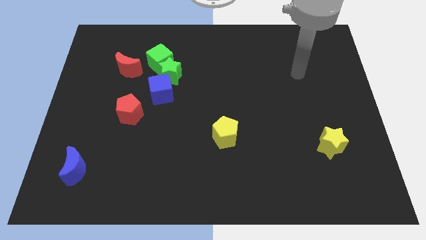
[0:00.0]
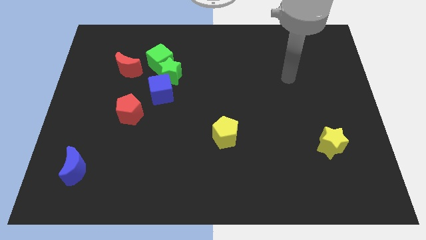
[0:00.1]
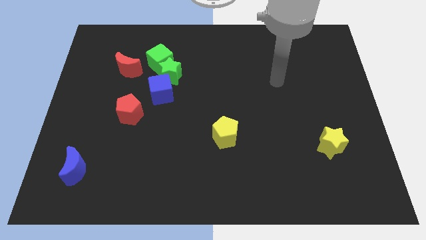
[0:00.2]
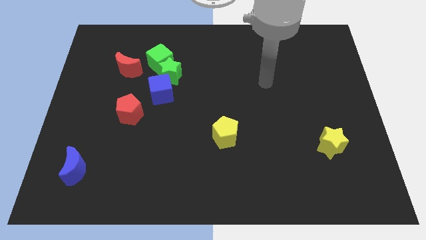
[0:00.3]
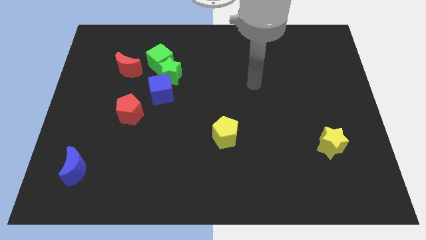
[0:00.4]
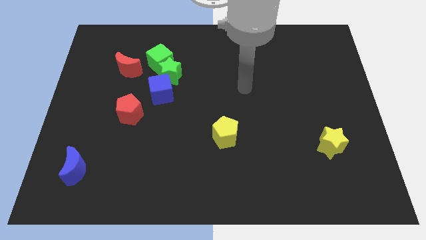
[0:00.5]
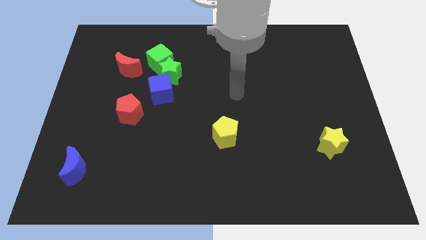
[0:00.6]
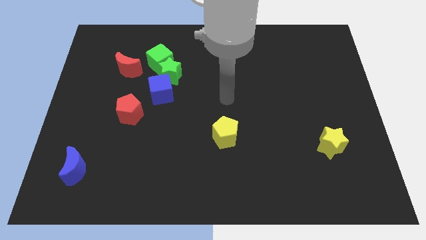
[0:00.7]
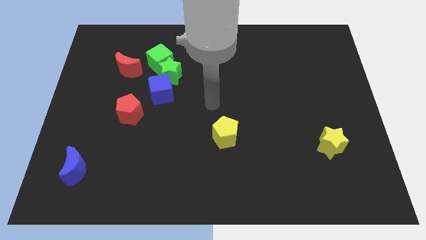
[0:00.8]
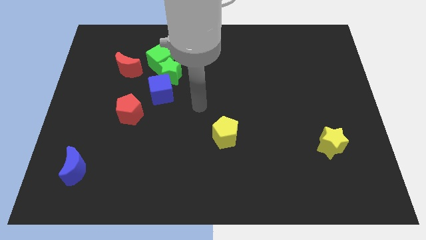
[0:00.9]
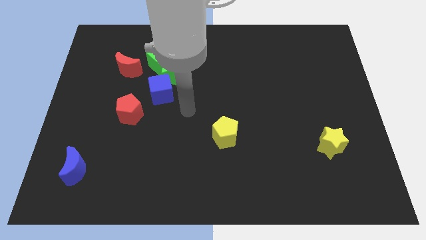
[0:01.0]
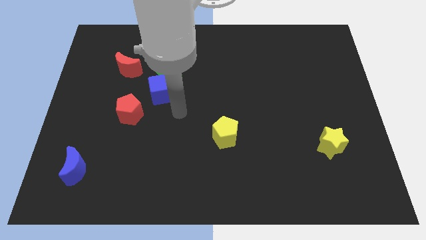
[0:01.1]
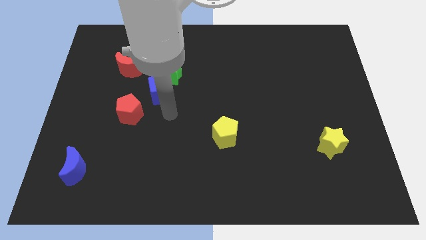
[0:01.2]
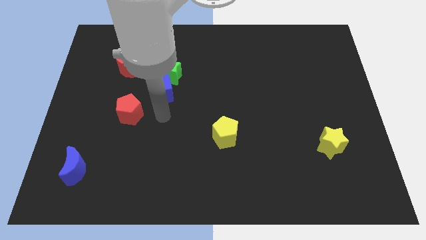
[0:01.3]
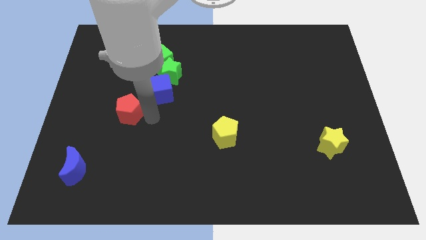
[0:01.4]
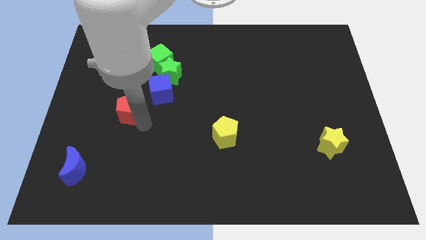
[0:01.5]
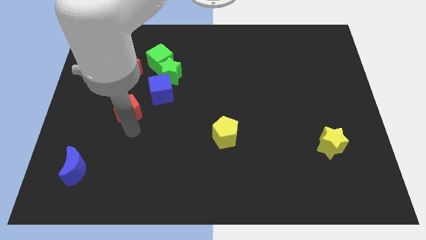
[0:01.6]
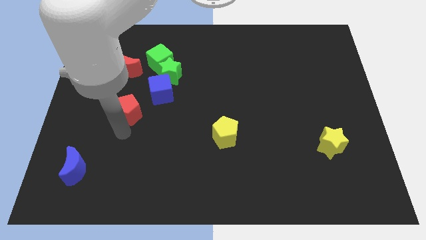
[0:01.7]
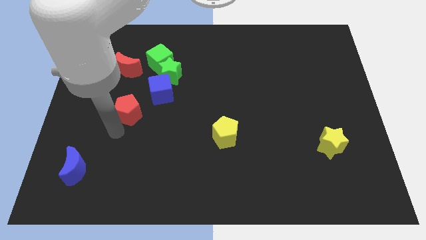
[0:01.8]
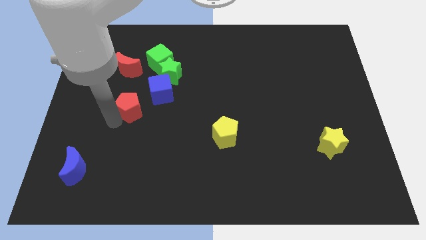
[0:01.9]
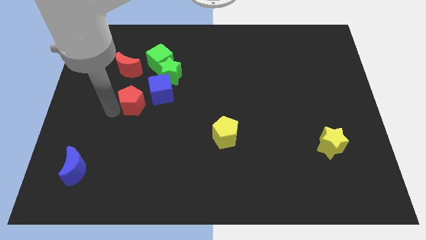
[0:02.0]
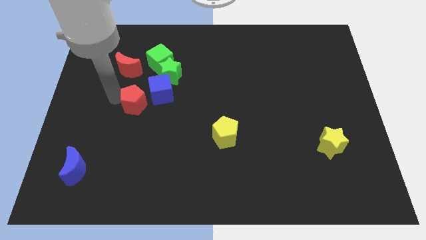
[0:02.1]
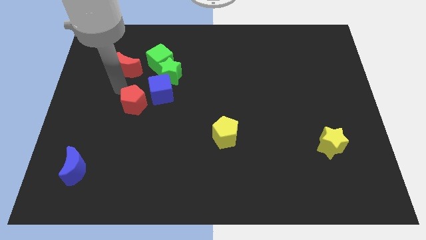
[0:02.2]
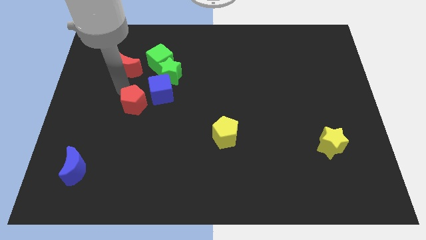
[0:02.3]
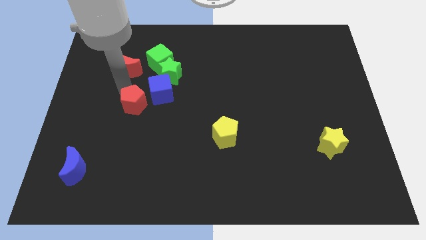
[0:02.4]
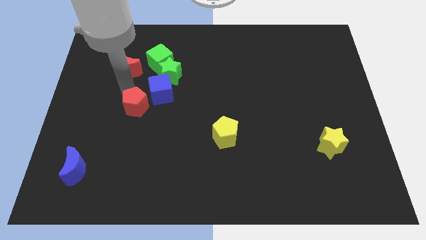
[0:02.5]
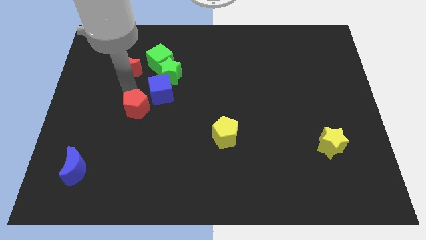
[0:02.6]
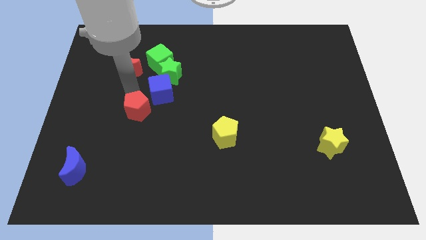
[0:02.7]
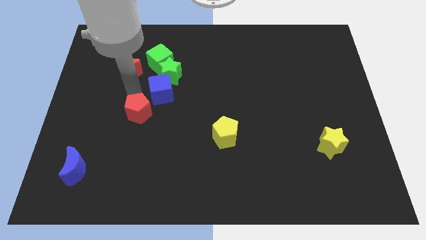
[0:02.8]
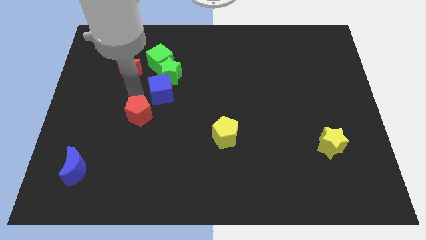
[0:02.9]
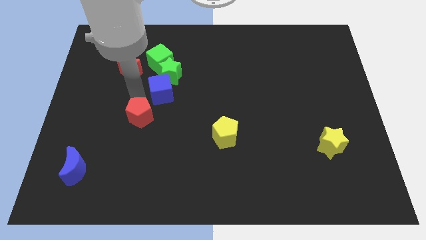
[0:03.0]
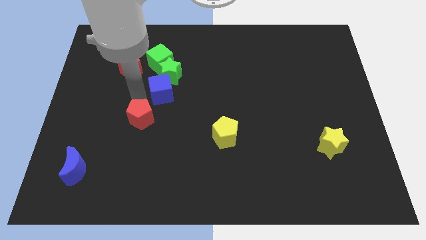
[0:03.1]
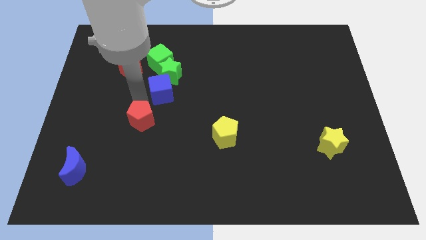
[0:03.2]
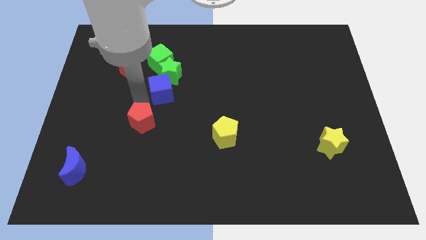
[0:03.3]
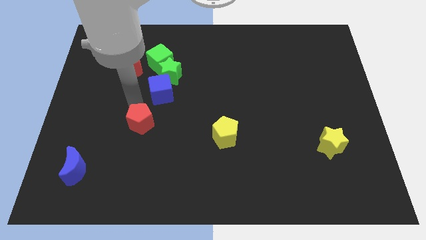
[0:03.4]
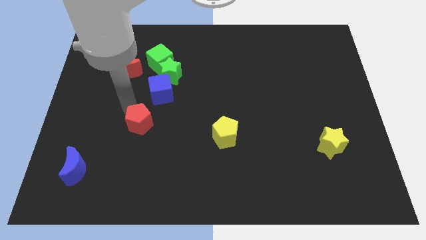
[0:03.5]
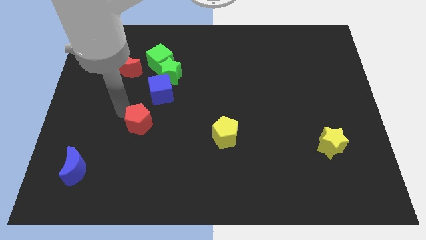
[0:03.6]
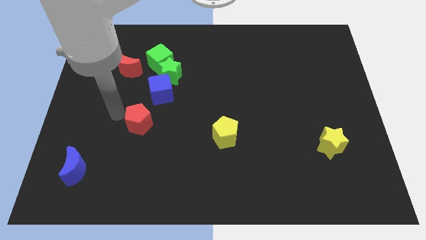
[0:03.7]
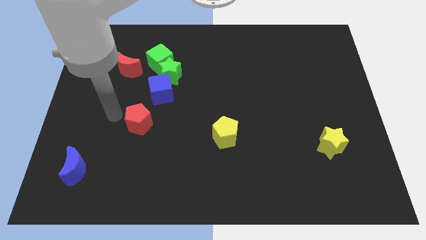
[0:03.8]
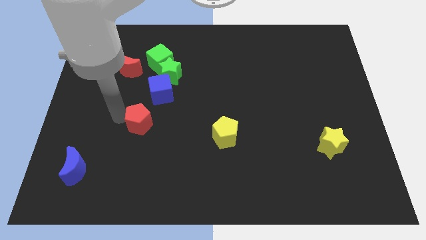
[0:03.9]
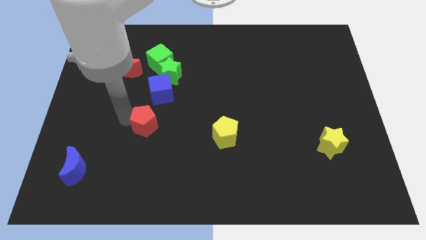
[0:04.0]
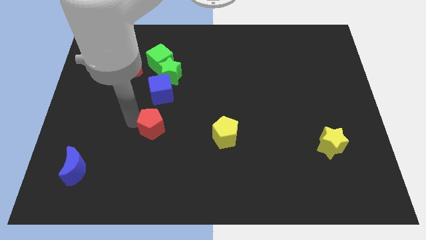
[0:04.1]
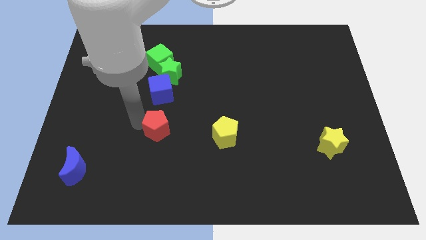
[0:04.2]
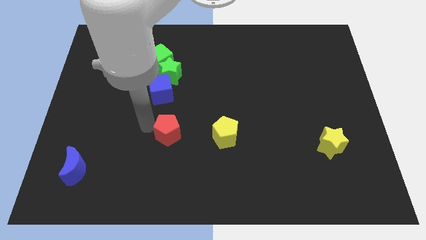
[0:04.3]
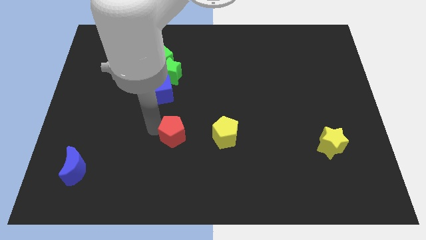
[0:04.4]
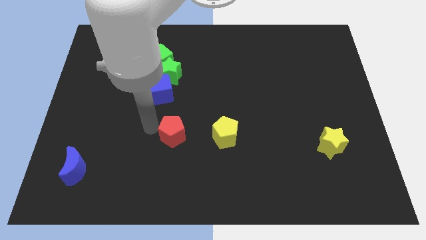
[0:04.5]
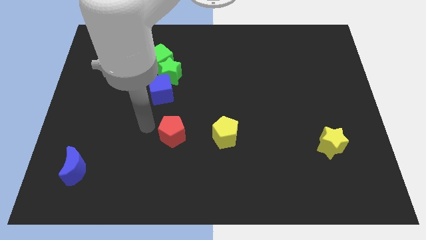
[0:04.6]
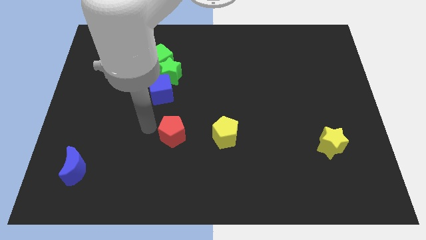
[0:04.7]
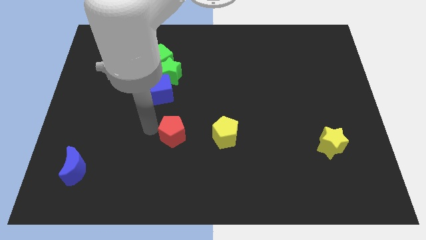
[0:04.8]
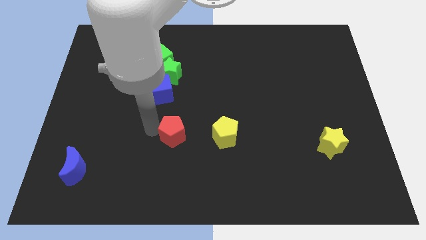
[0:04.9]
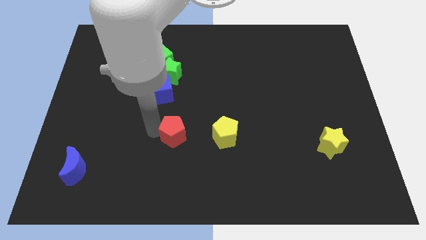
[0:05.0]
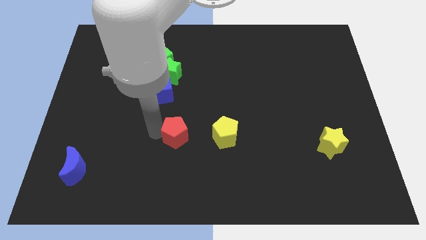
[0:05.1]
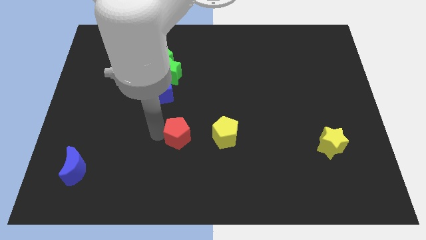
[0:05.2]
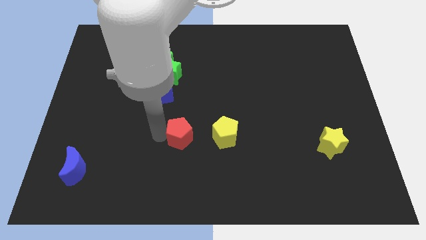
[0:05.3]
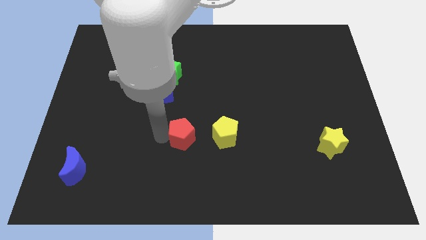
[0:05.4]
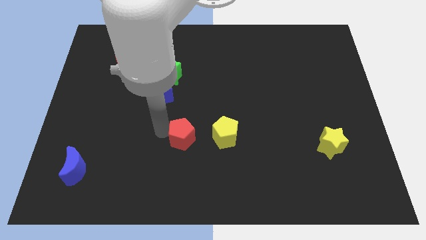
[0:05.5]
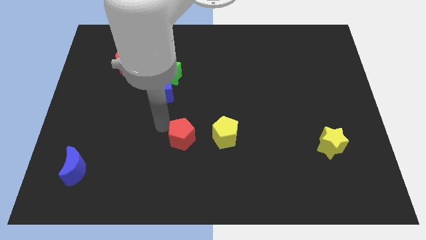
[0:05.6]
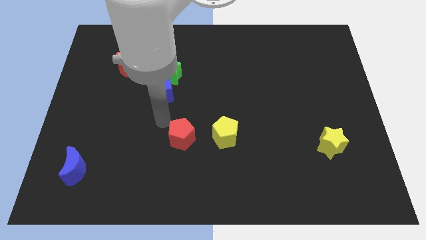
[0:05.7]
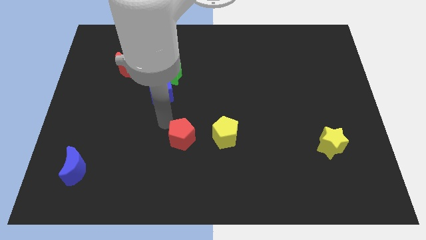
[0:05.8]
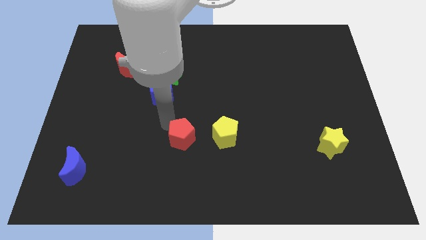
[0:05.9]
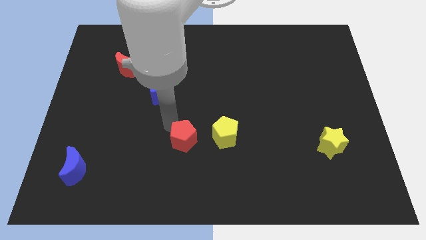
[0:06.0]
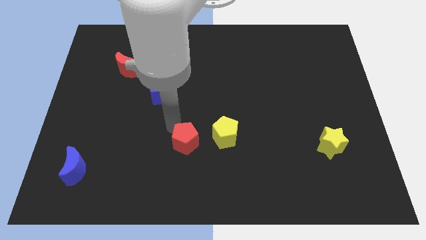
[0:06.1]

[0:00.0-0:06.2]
push the red pentagon diagonally down and to the left of the yellow pentagon
